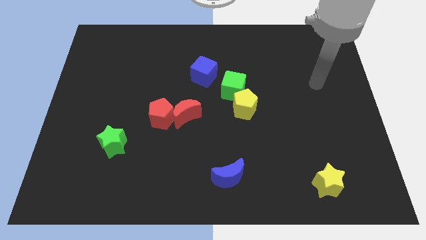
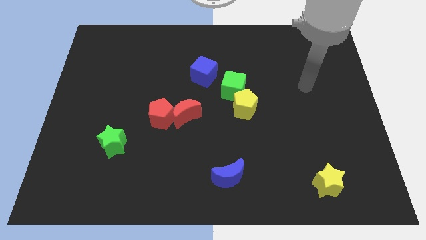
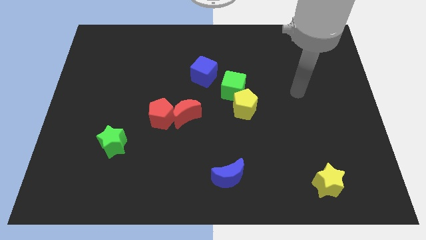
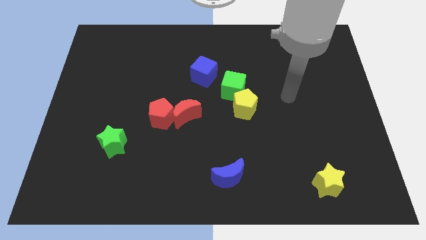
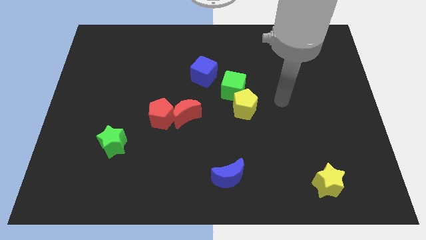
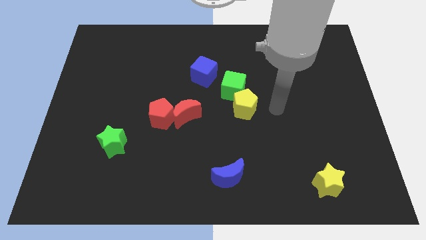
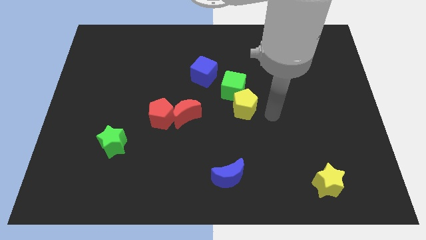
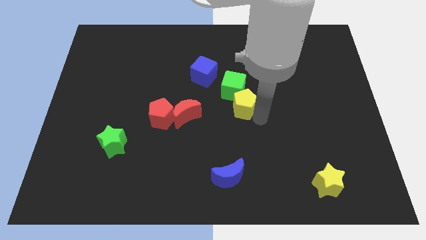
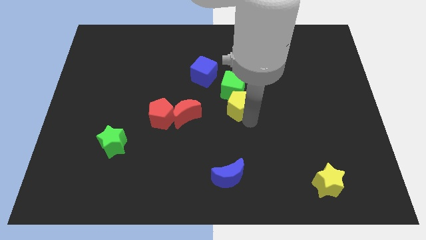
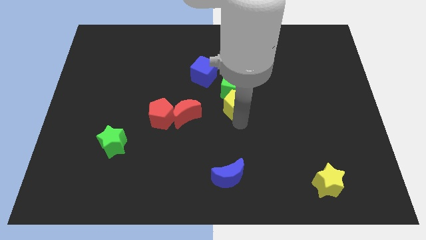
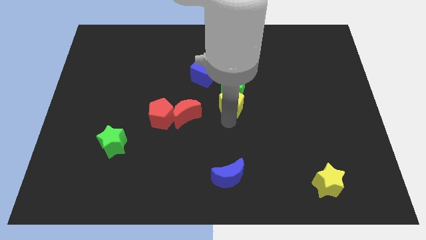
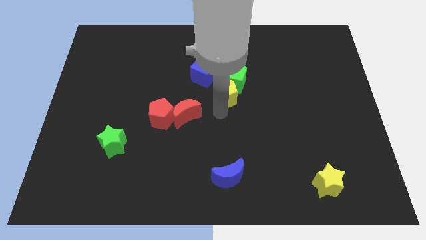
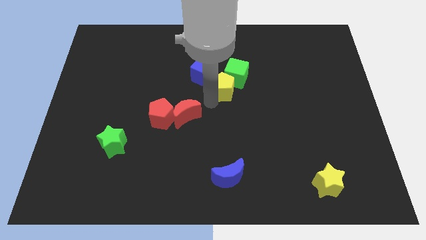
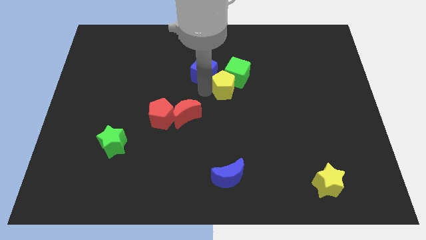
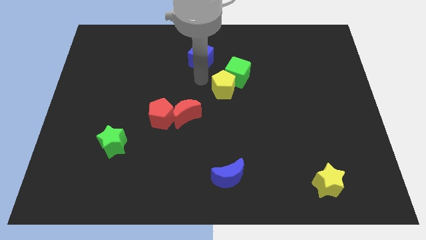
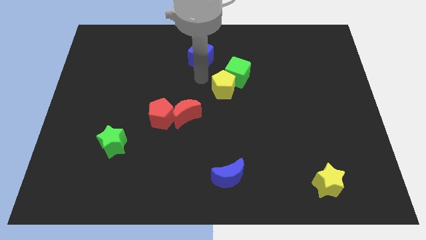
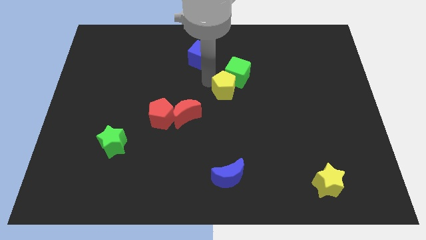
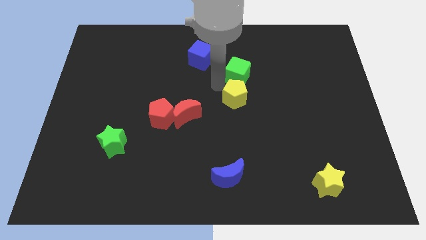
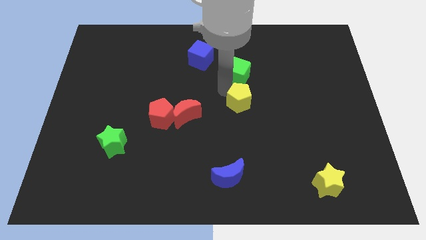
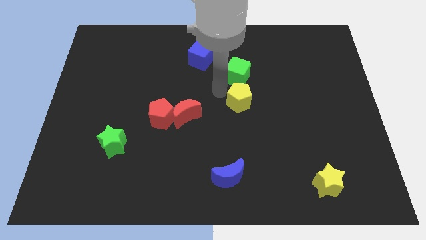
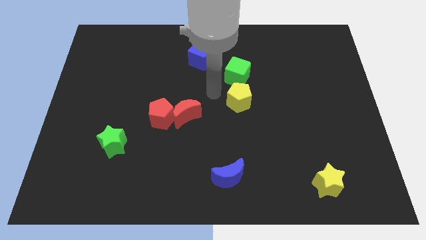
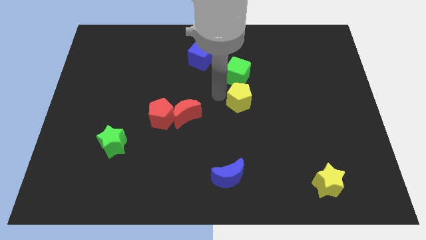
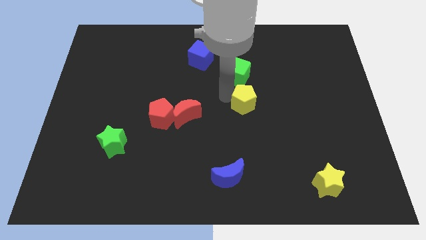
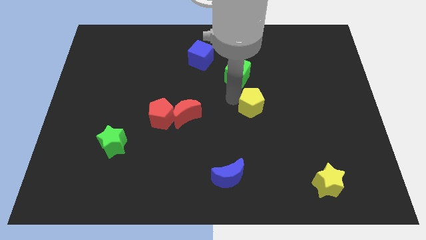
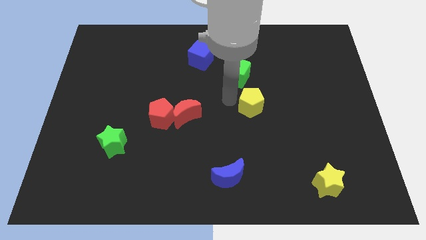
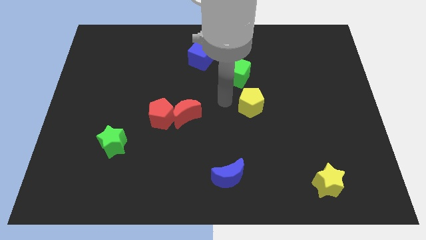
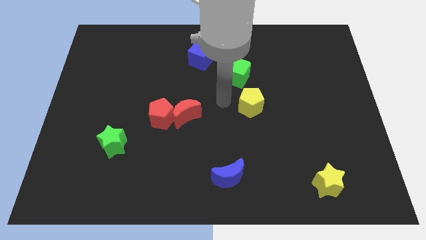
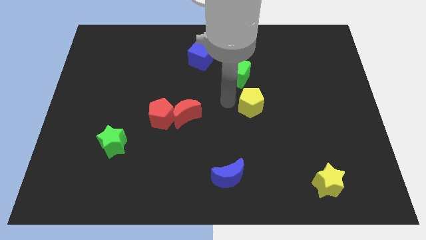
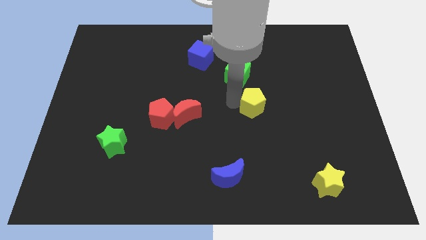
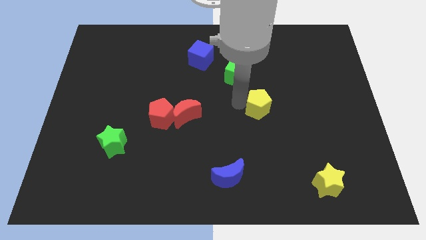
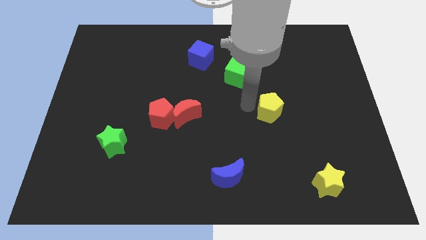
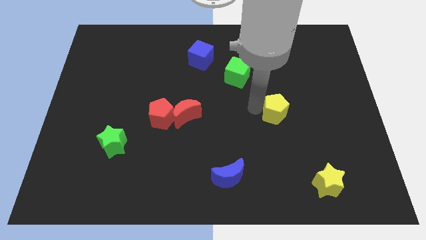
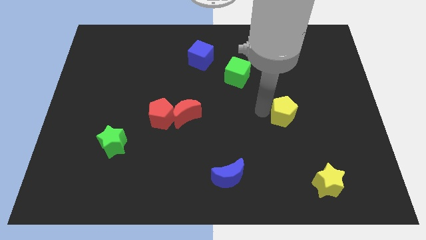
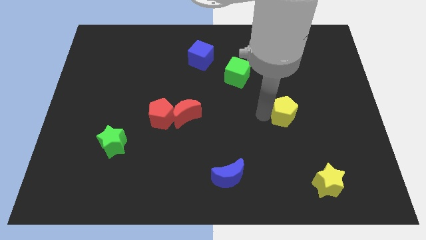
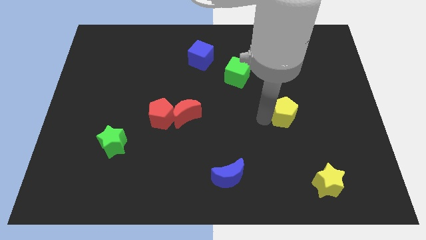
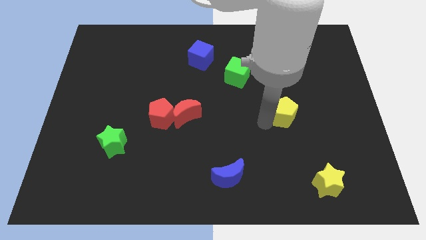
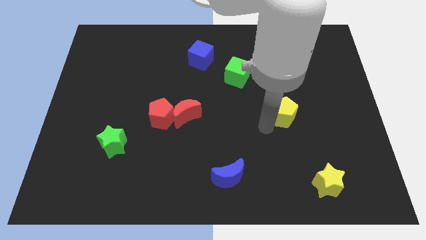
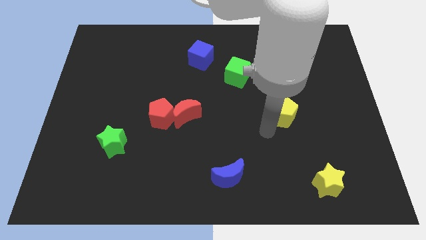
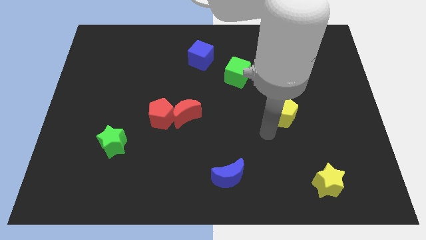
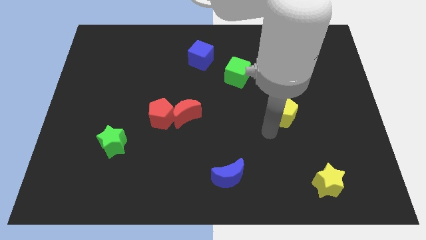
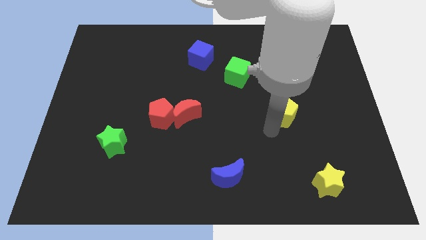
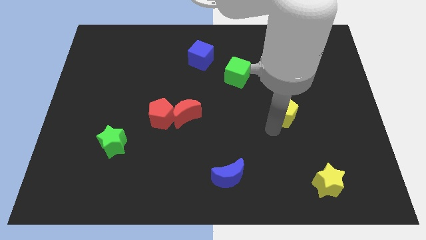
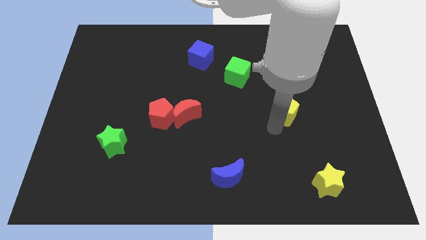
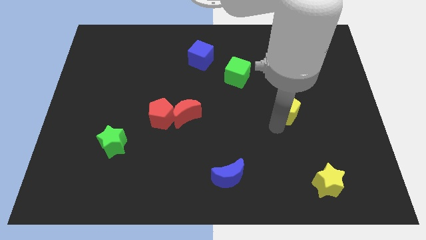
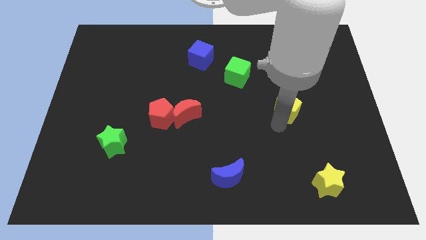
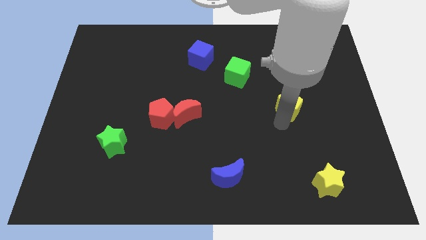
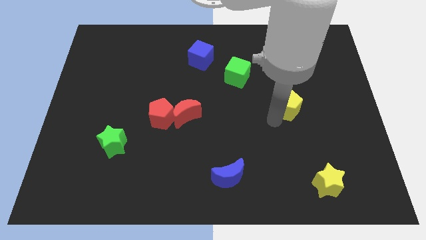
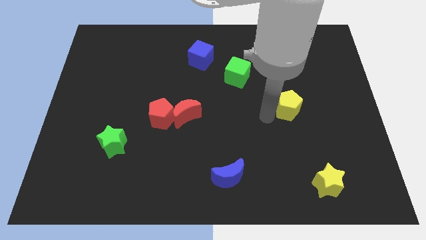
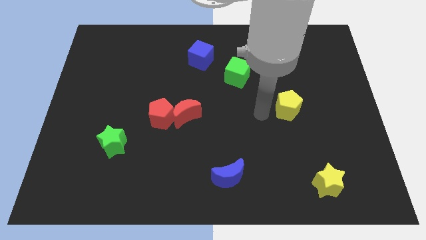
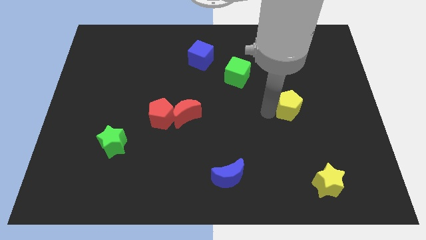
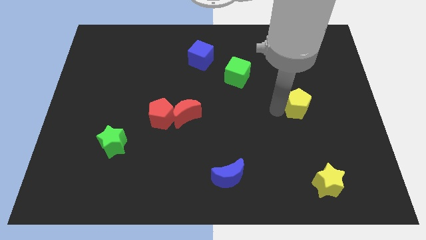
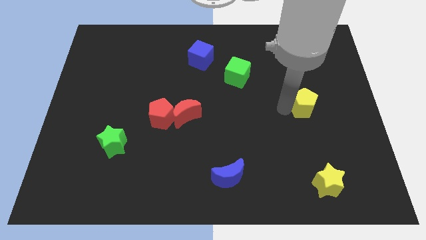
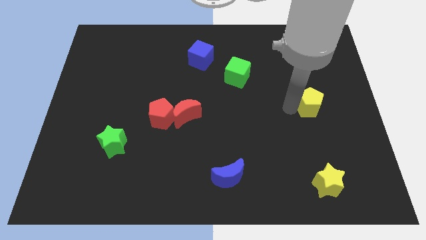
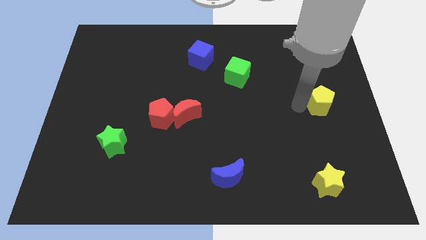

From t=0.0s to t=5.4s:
slide the yellow pentagon to the center right

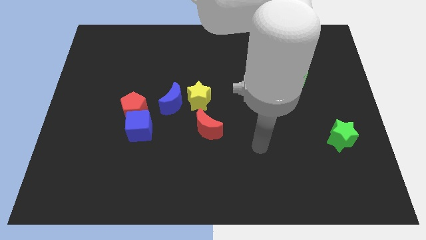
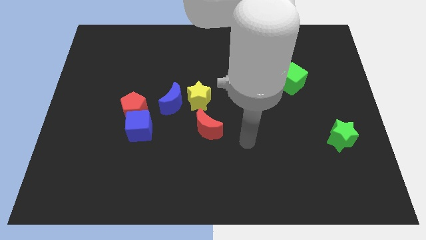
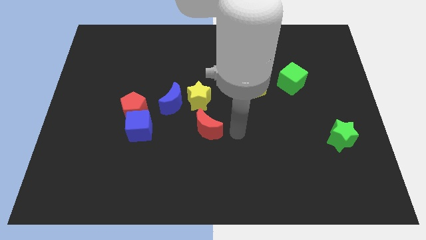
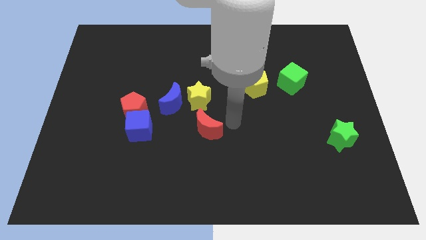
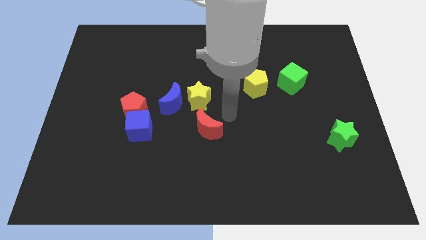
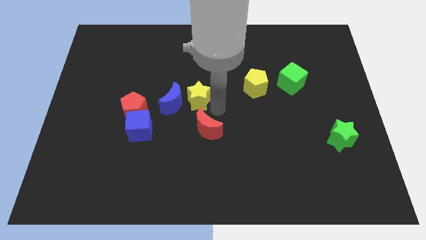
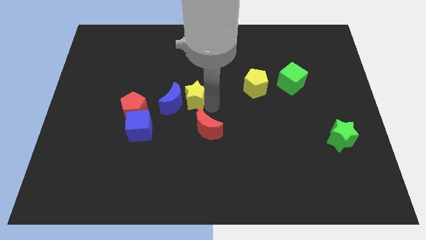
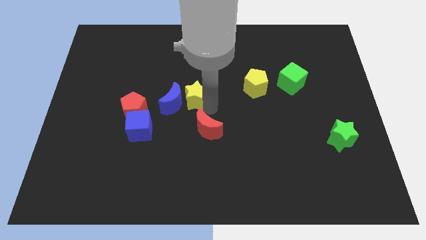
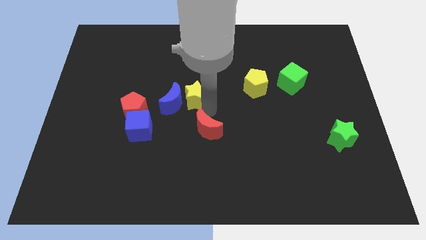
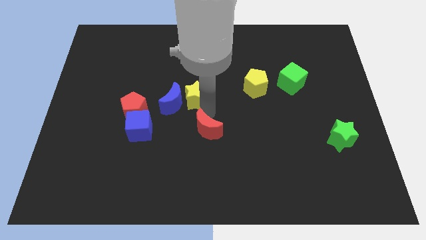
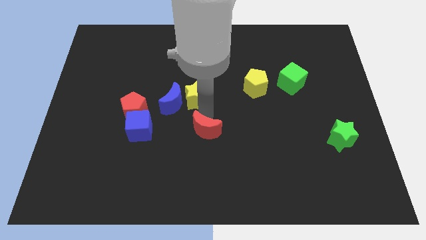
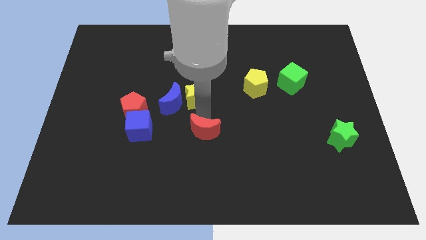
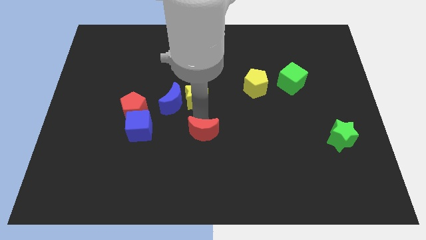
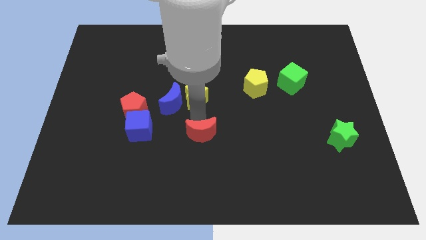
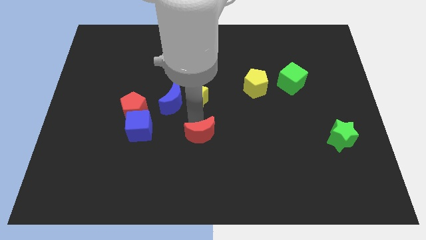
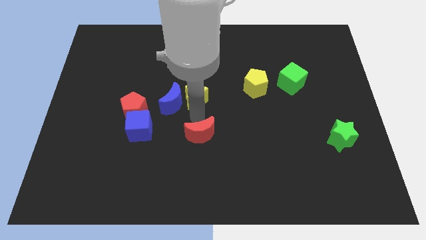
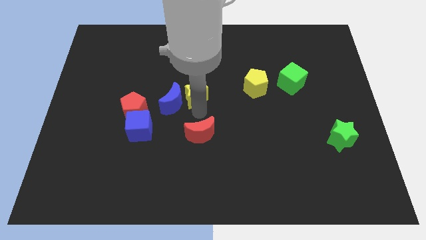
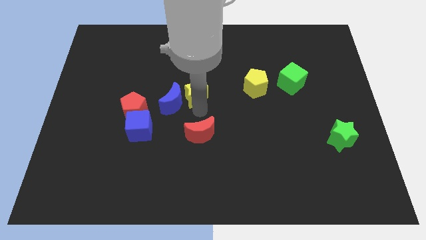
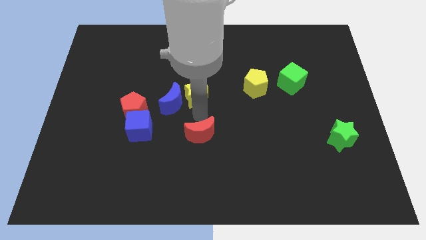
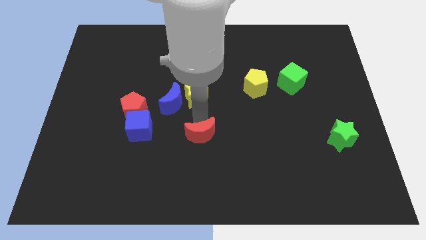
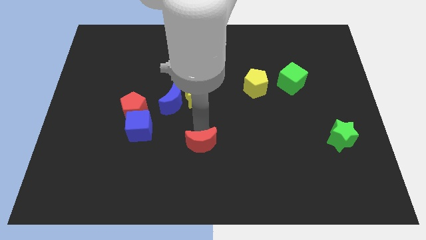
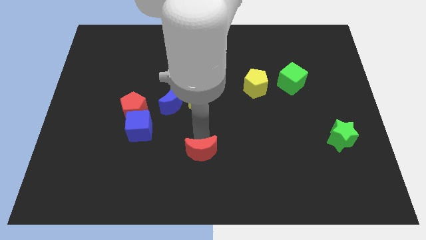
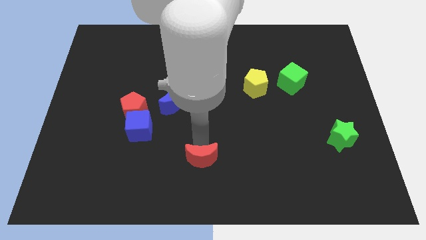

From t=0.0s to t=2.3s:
push the red moon to the bottom side
